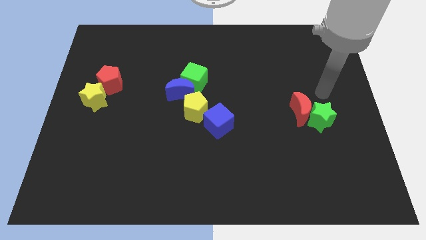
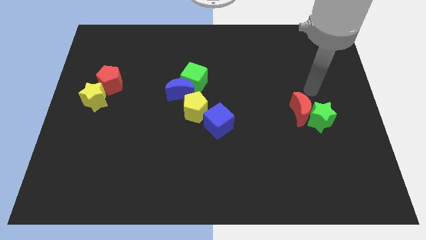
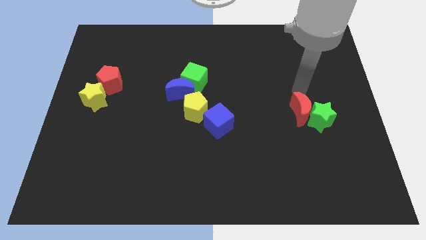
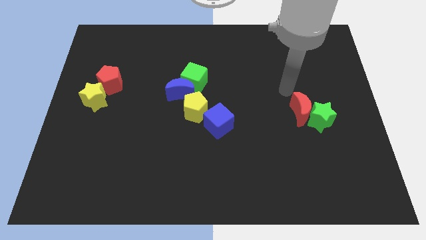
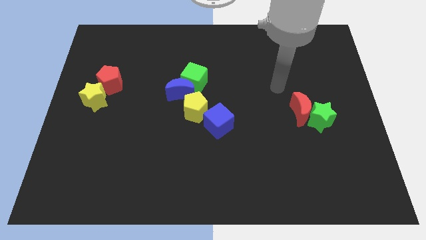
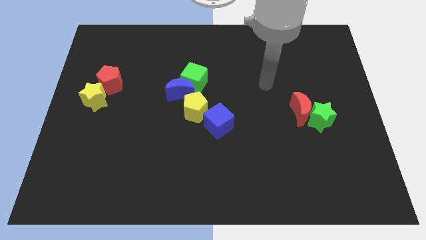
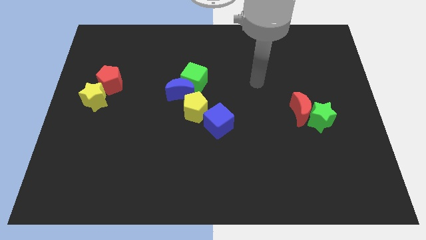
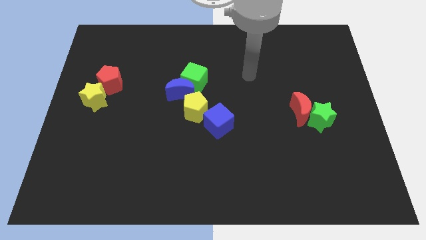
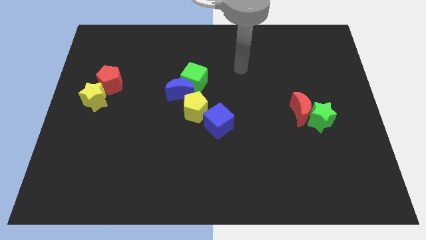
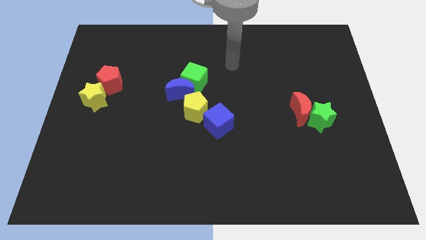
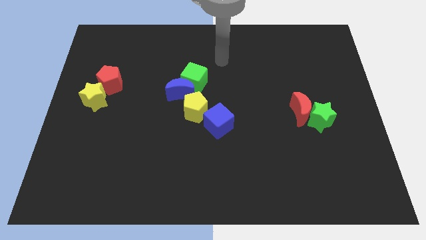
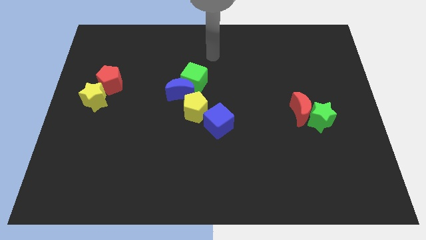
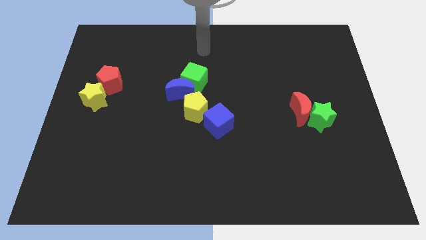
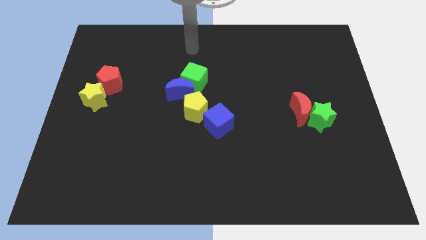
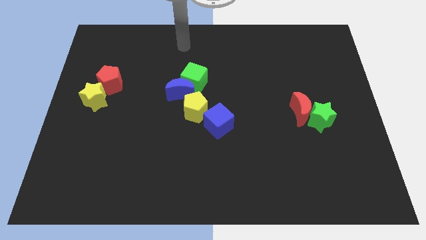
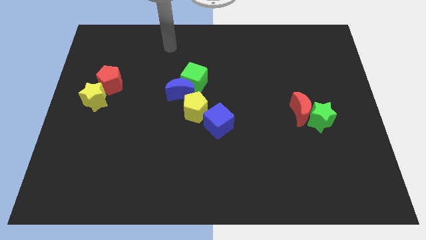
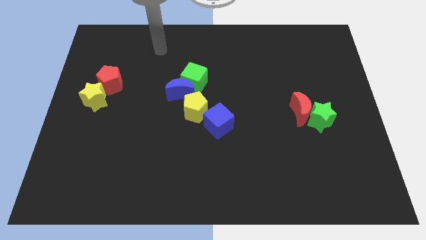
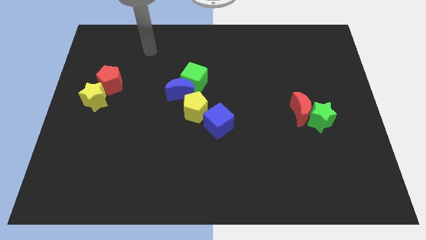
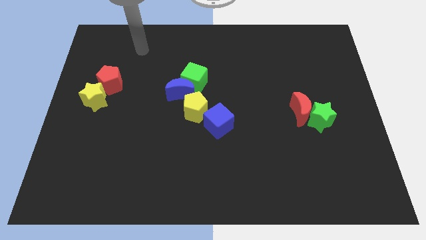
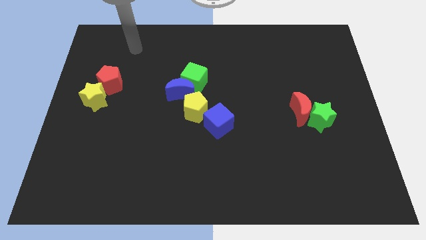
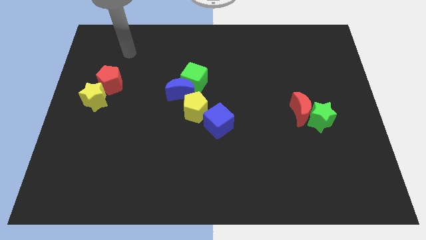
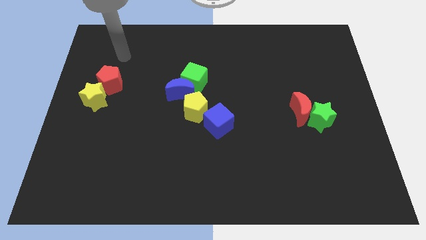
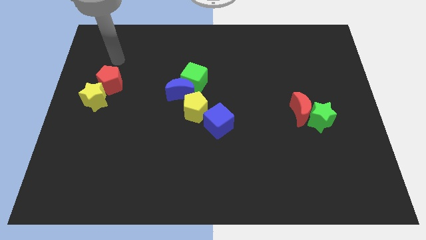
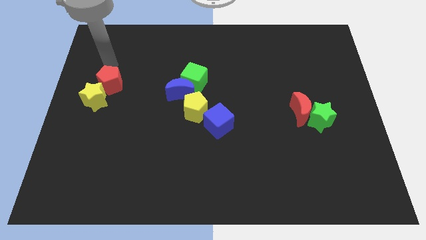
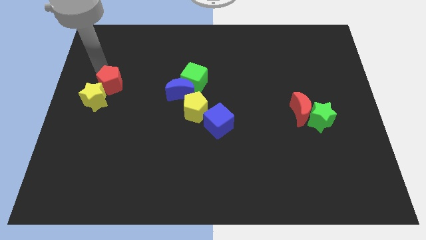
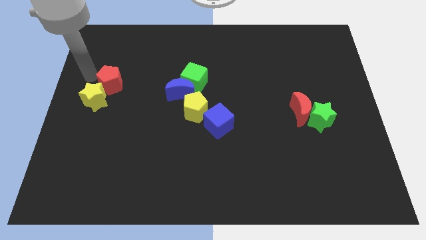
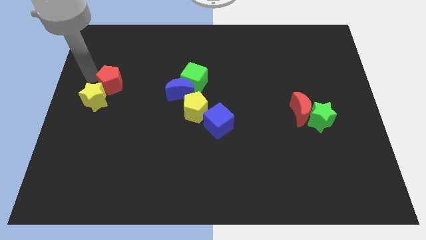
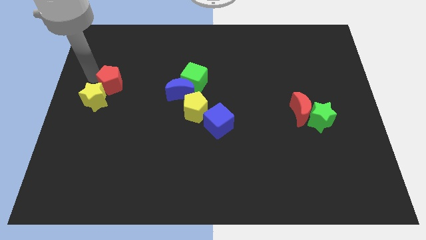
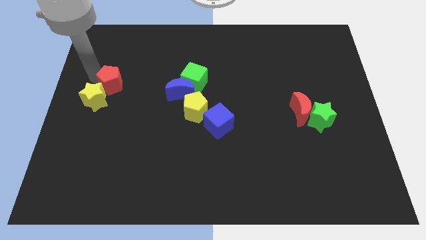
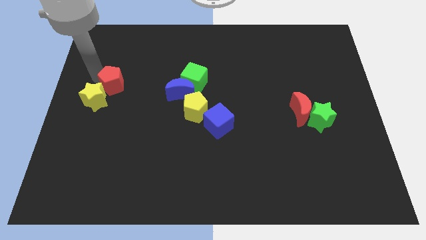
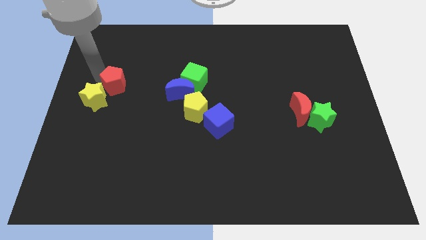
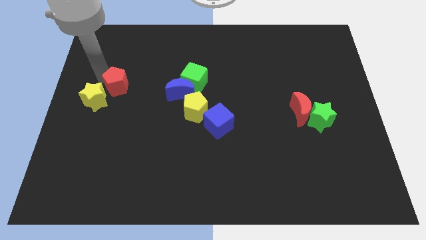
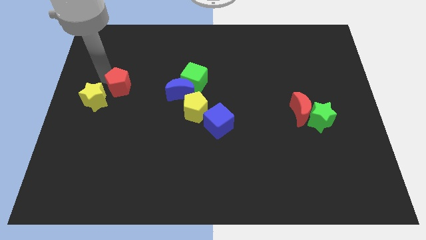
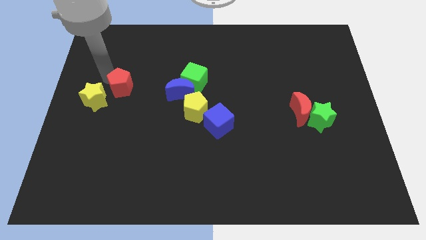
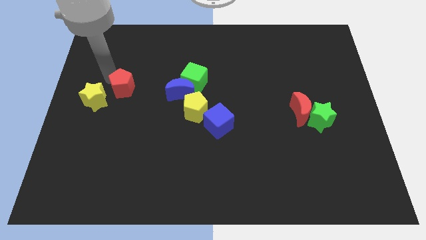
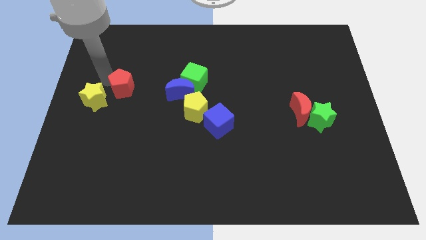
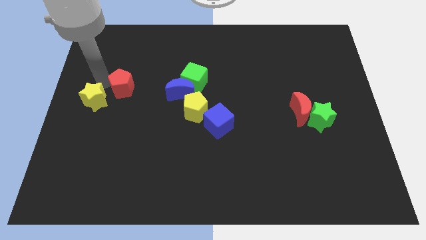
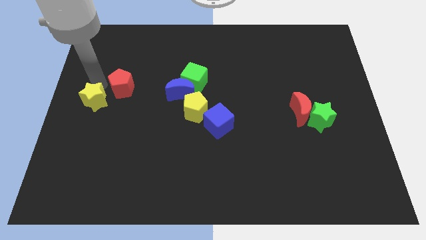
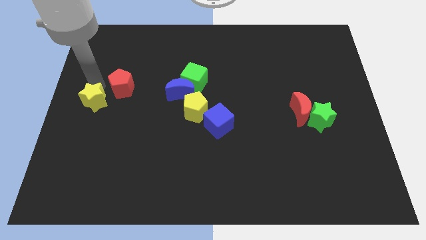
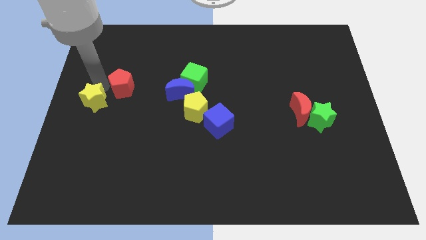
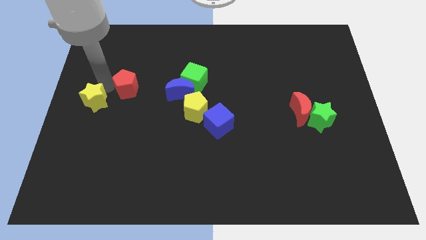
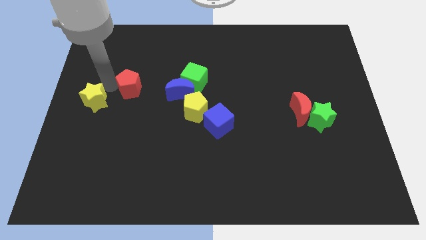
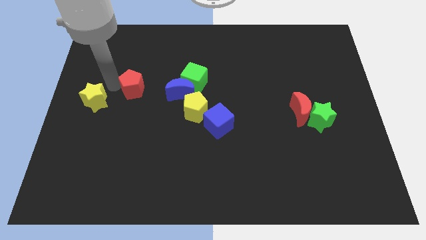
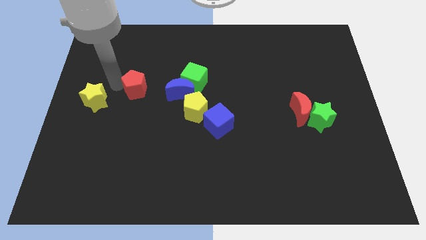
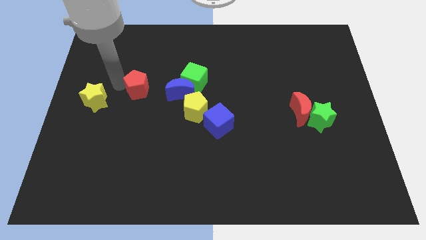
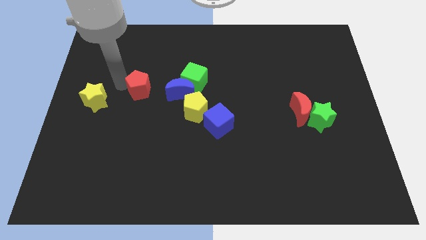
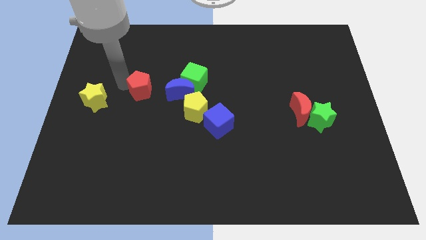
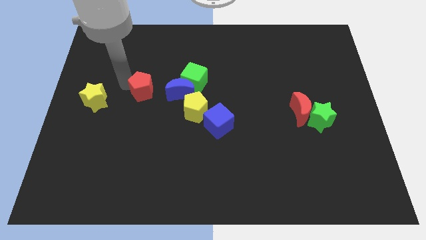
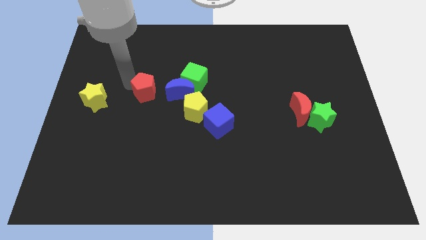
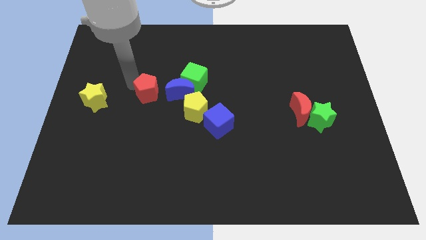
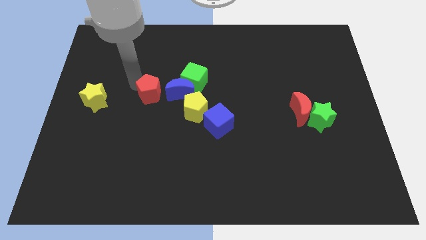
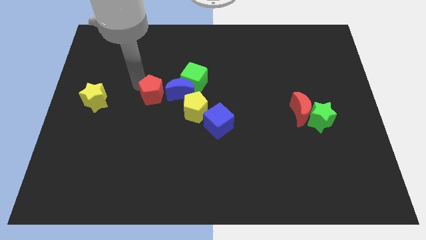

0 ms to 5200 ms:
slide the red pentagon to the bottom left side of the green cube

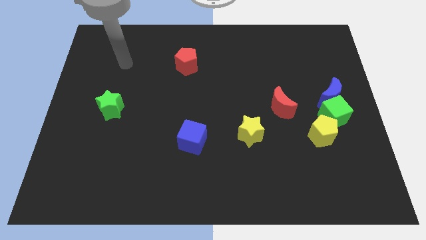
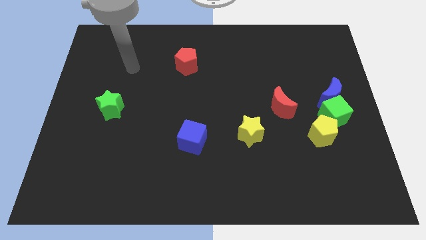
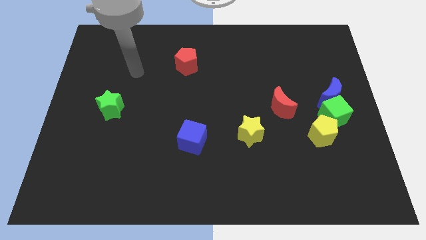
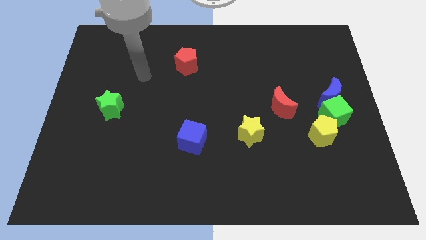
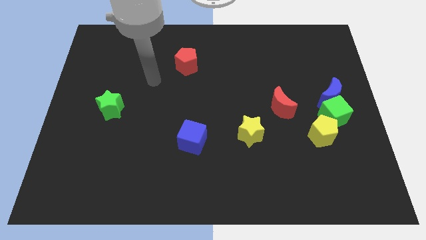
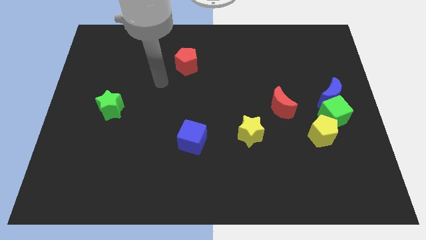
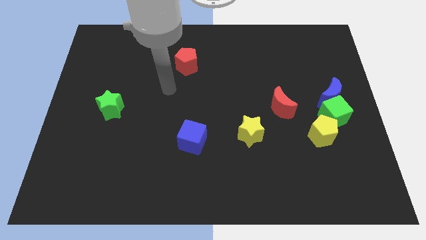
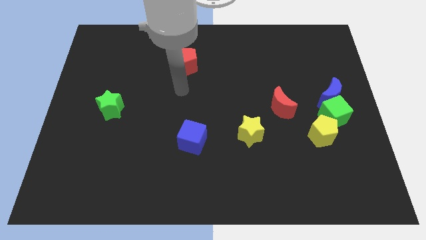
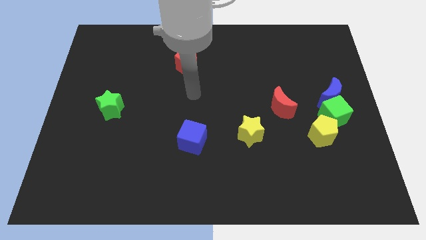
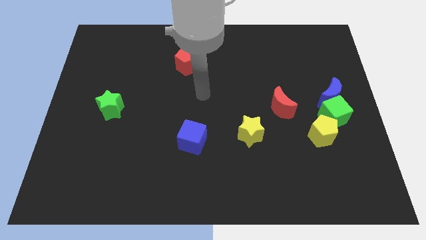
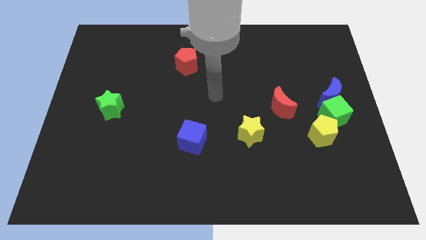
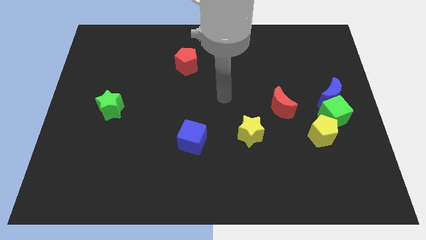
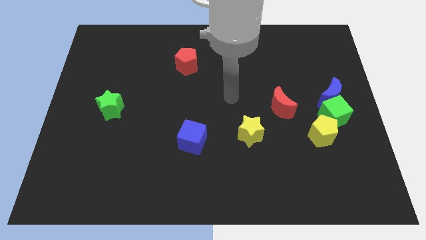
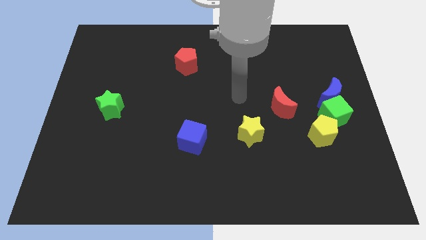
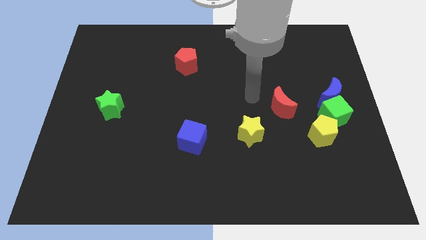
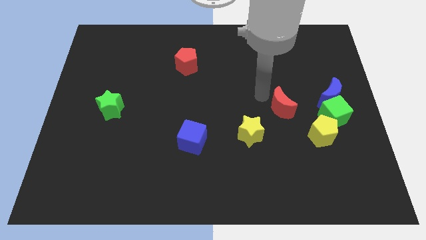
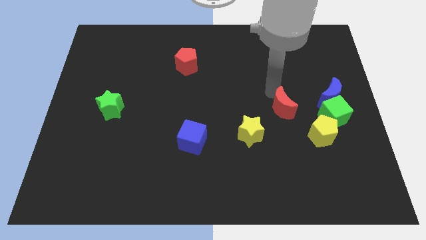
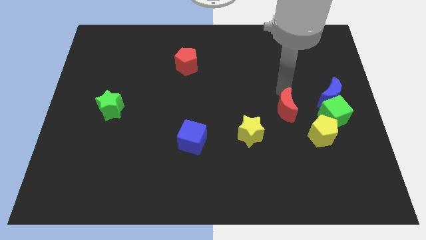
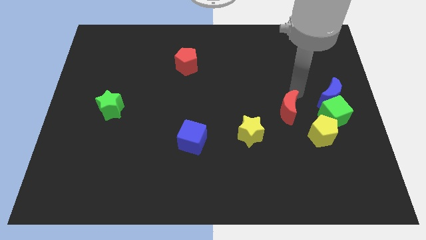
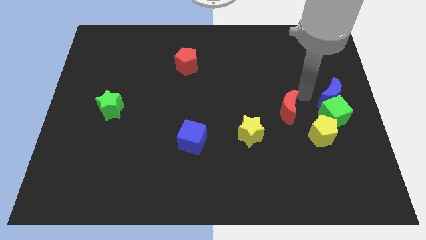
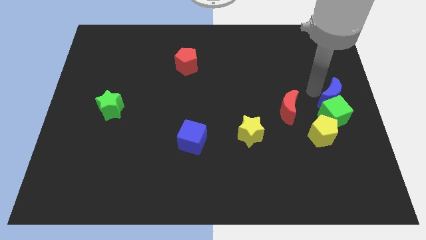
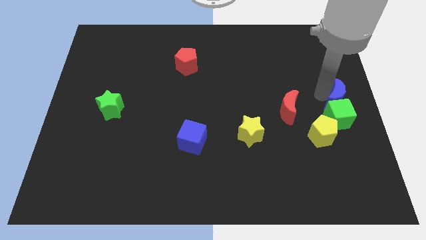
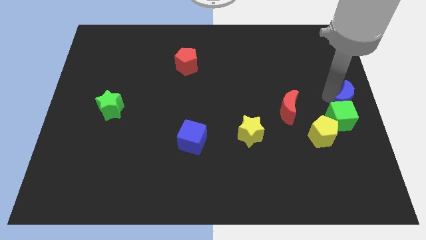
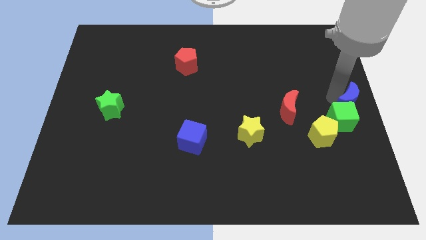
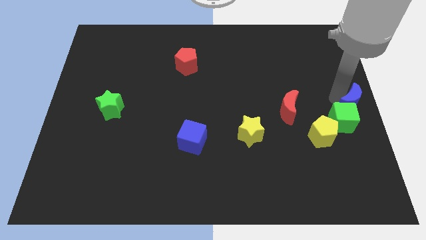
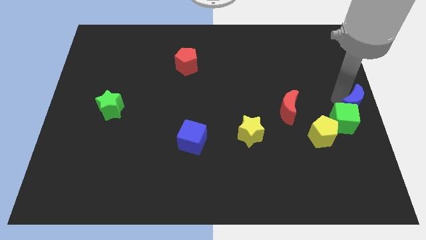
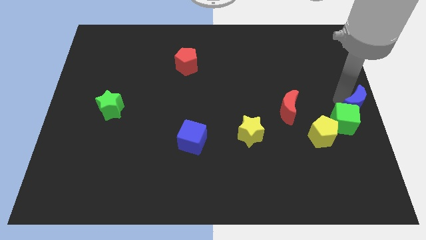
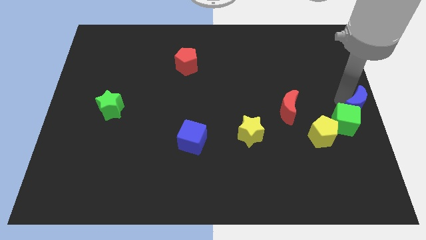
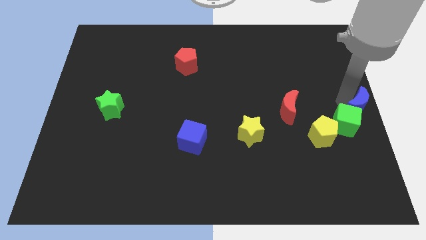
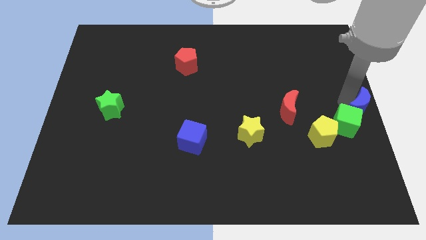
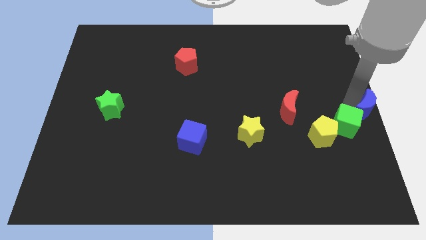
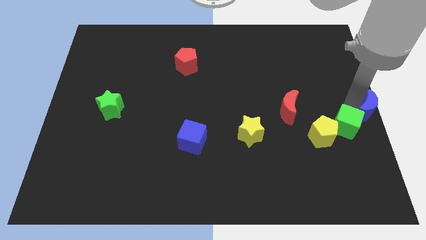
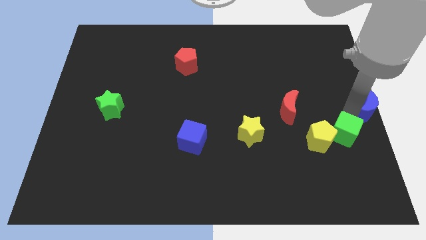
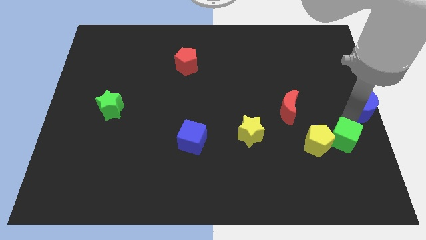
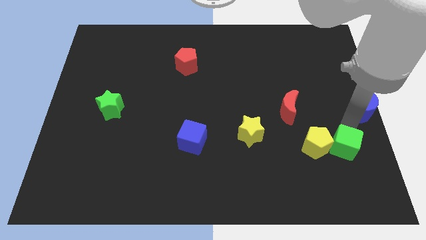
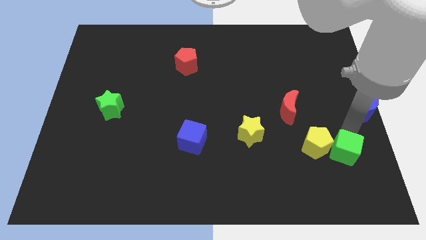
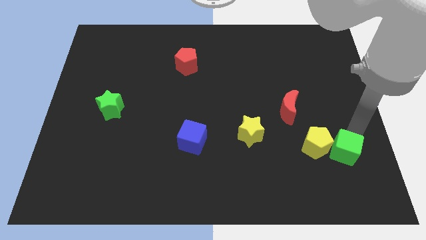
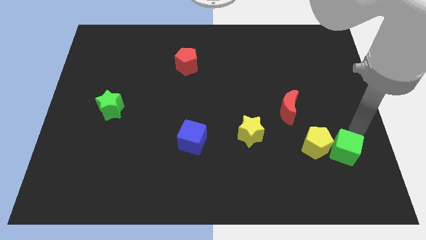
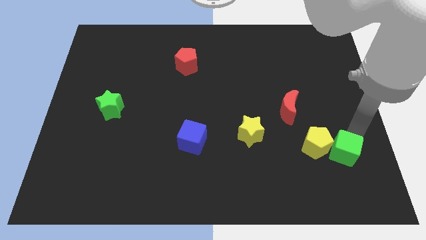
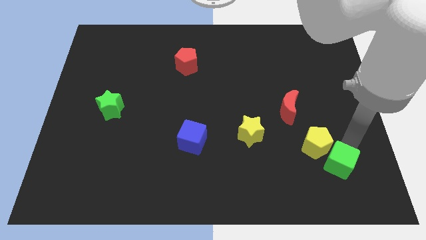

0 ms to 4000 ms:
push the green cube to the bottom side of the yellow pentagon
